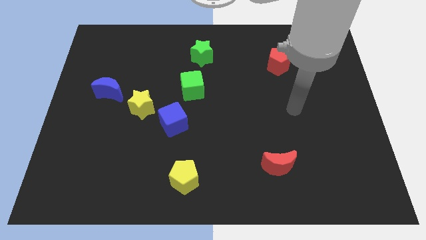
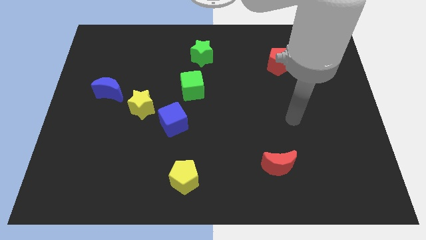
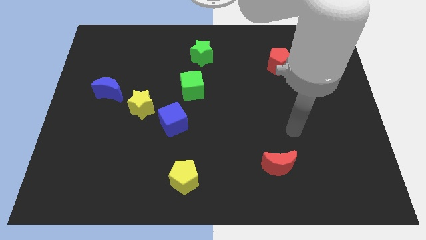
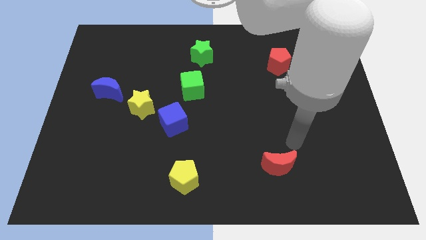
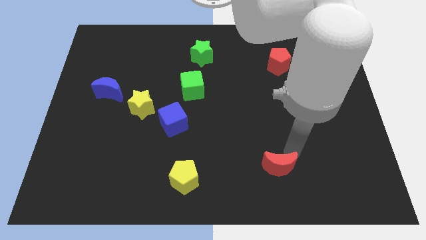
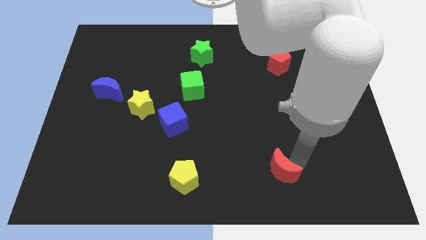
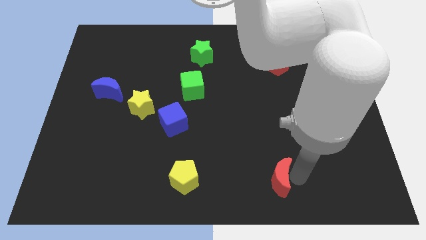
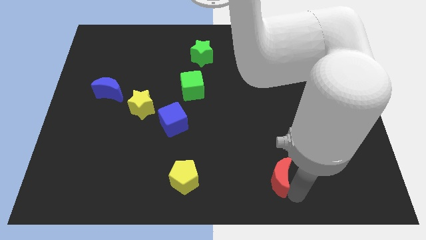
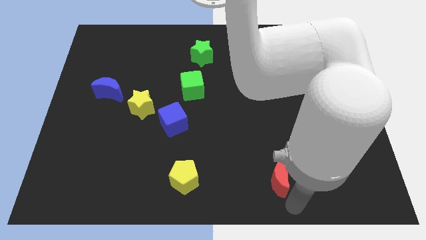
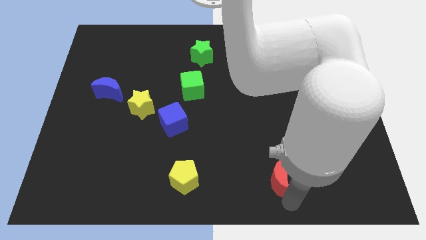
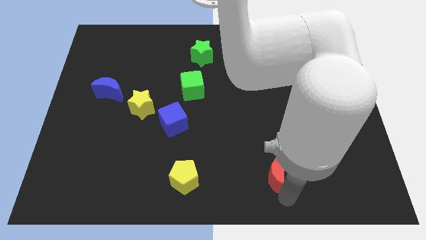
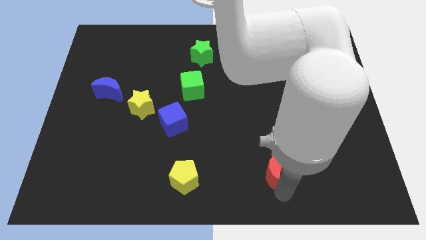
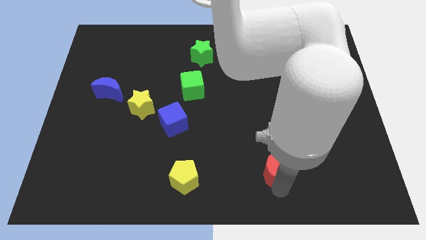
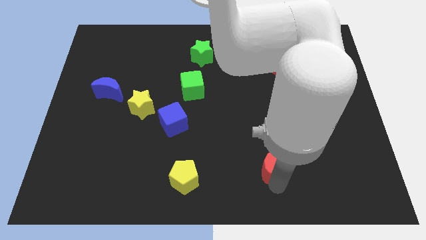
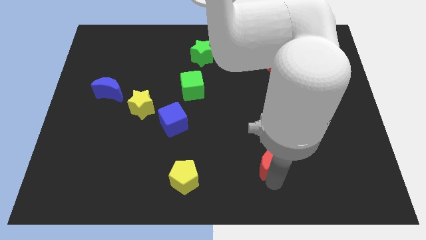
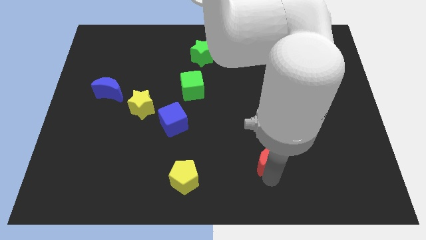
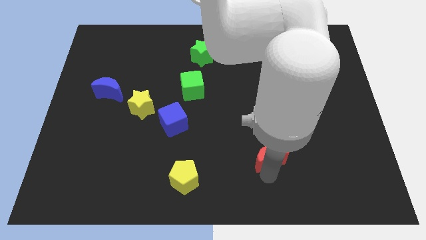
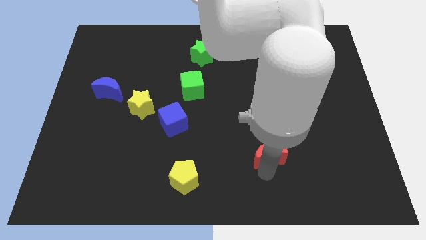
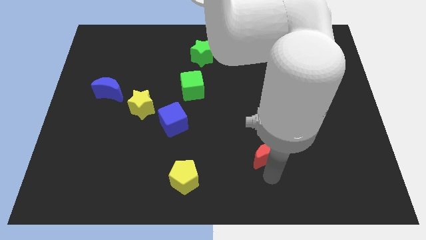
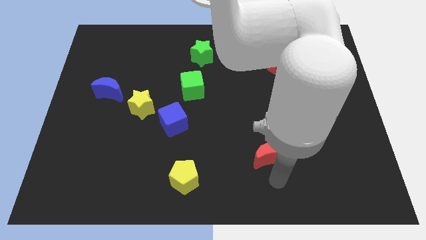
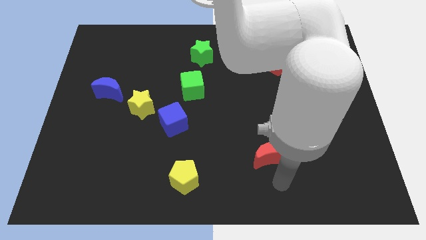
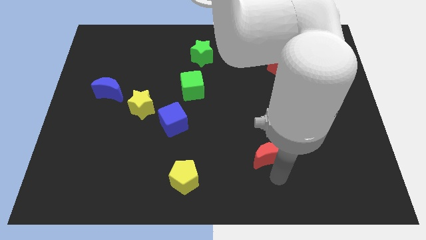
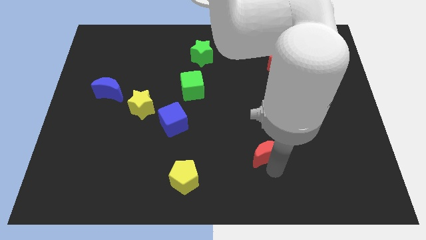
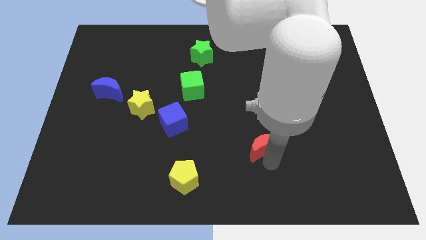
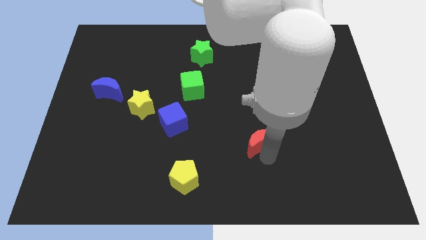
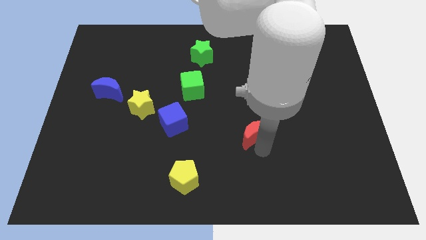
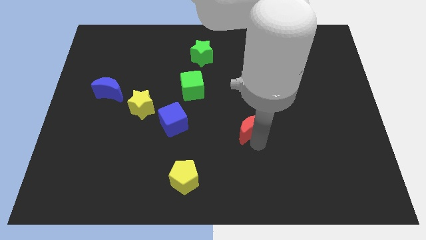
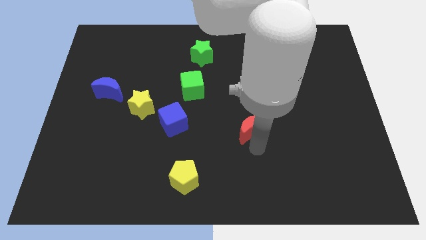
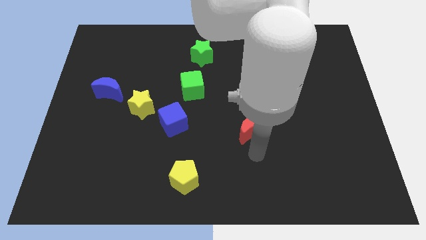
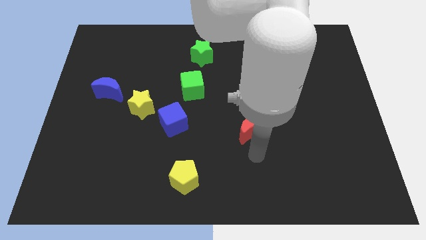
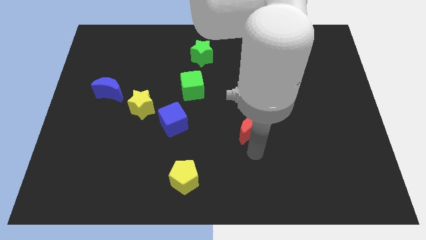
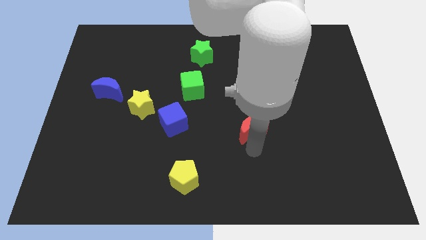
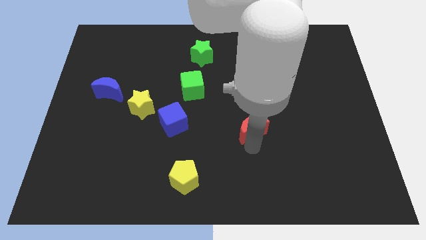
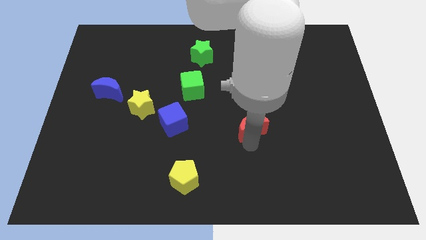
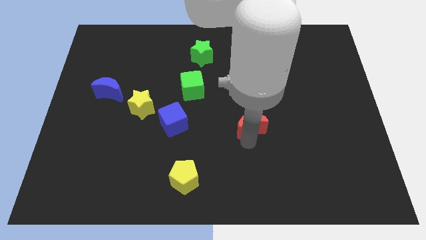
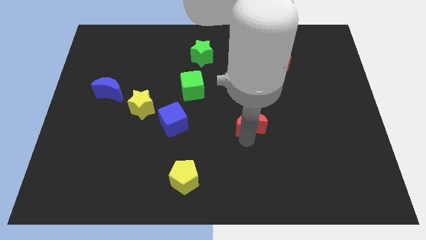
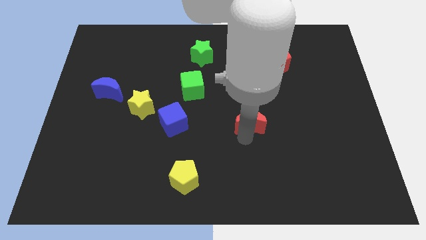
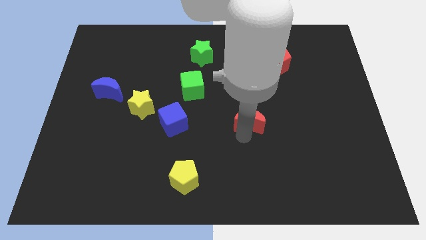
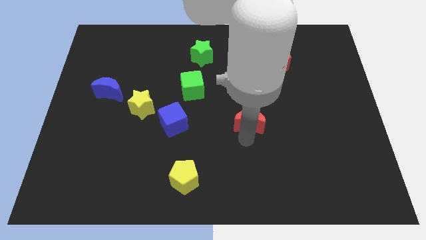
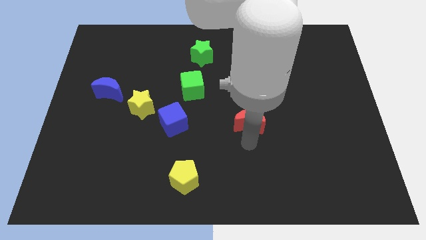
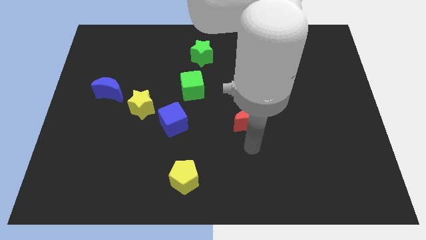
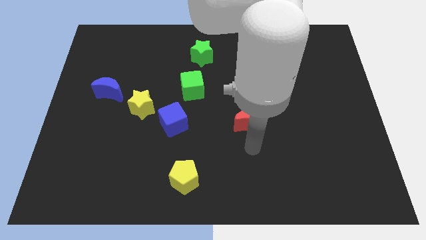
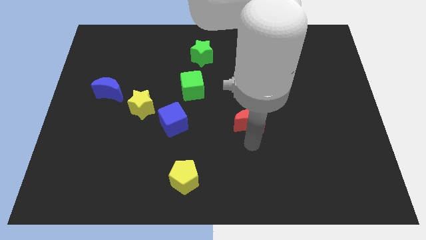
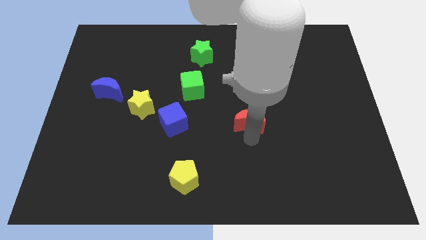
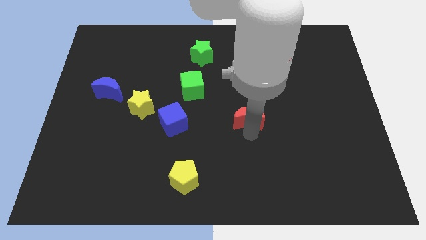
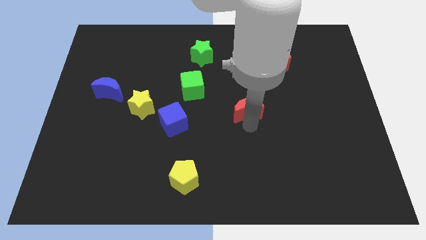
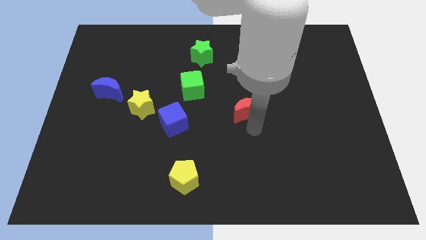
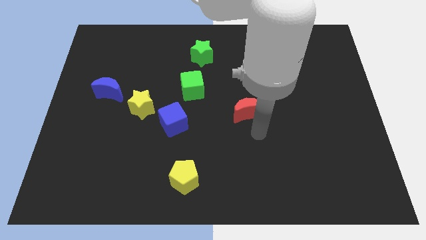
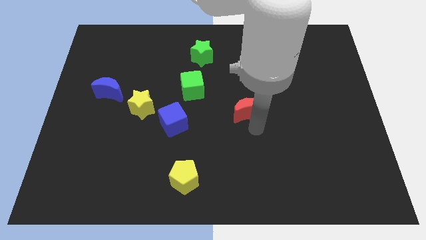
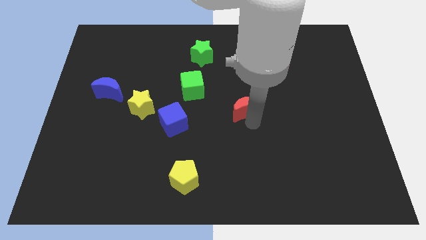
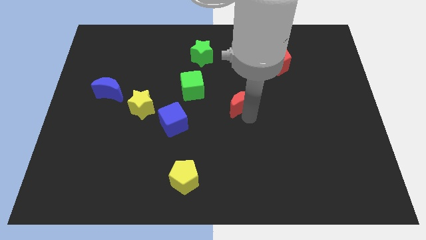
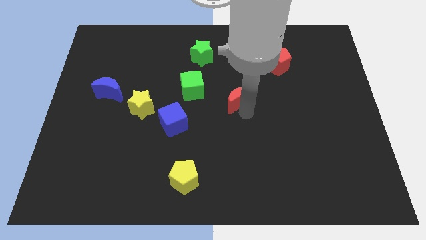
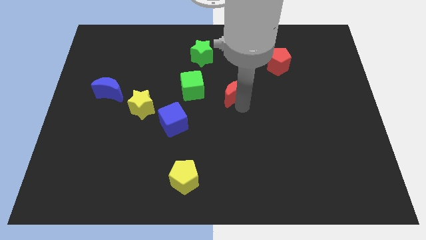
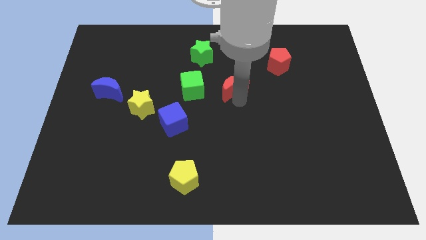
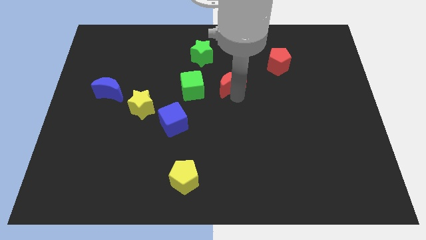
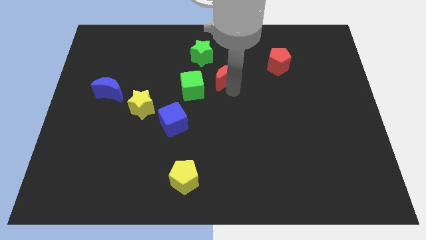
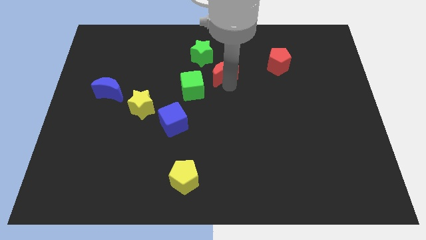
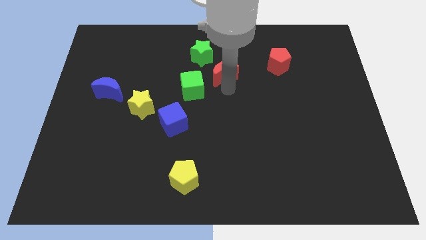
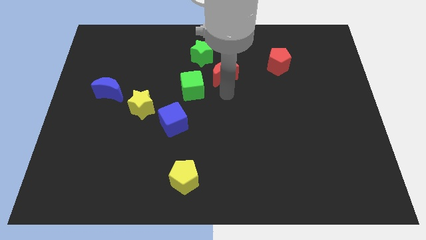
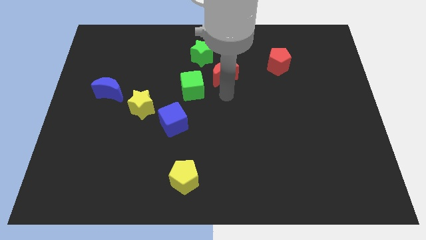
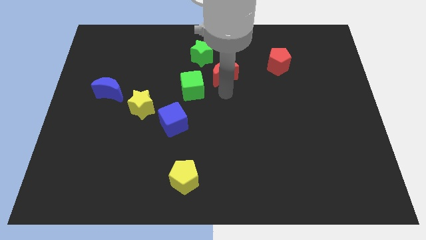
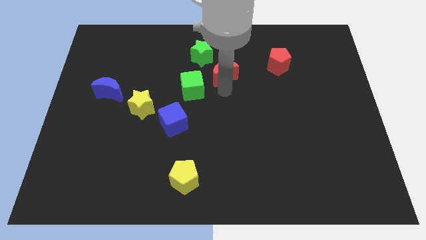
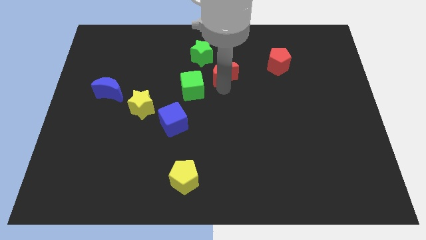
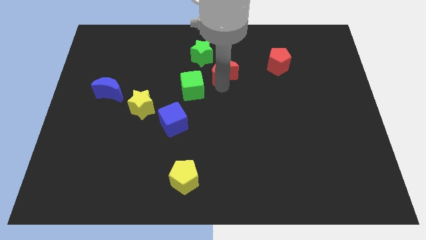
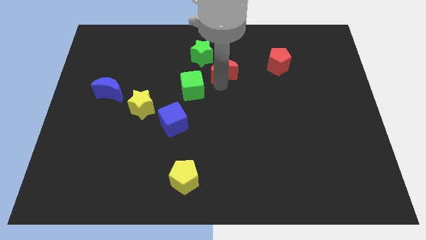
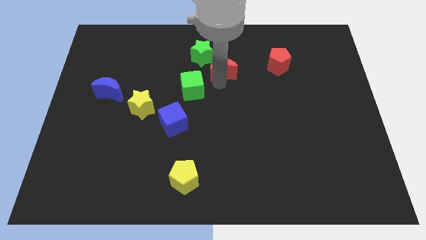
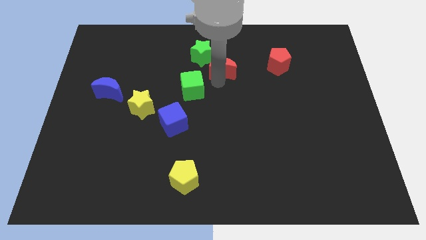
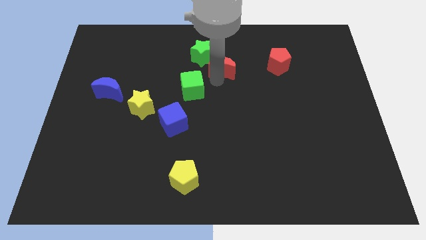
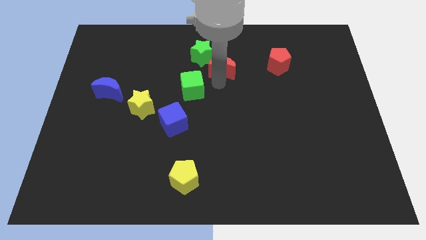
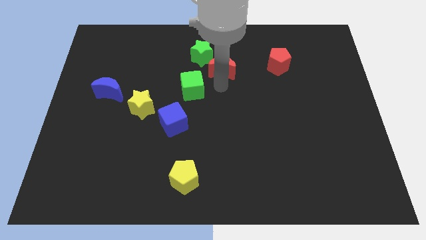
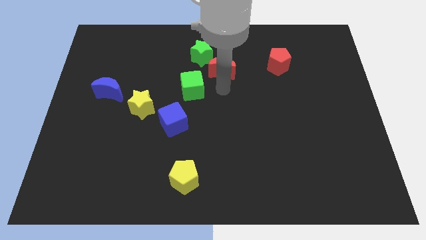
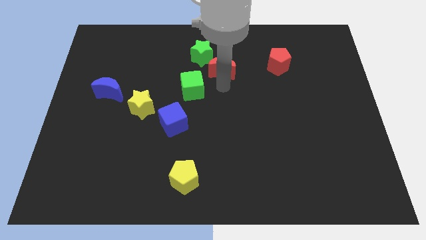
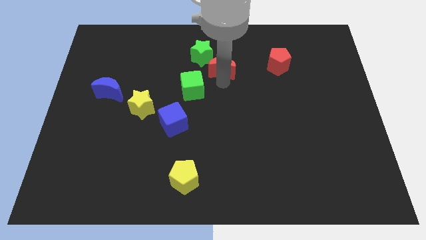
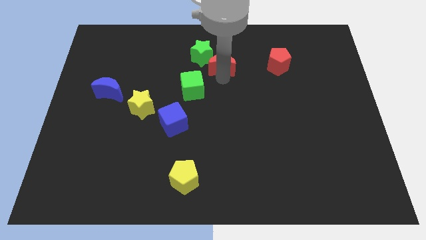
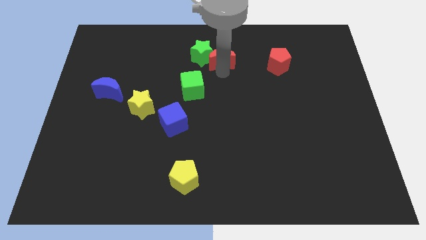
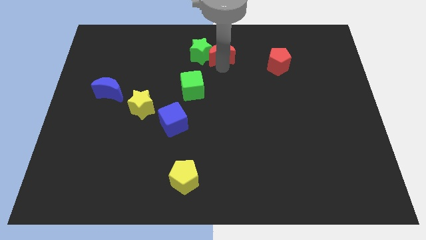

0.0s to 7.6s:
move the red moon to the top
